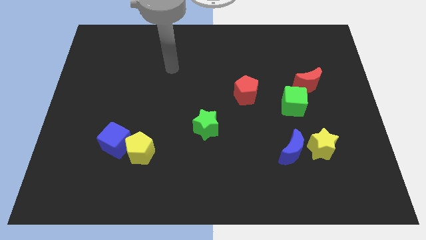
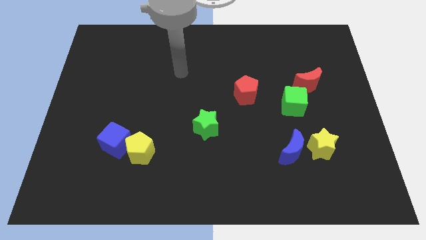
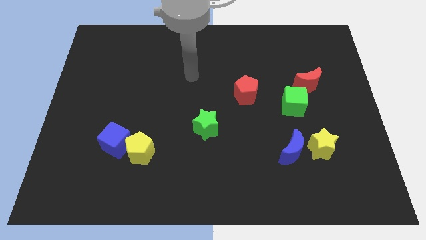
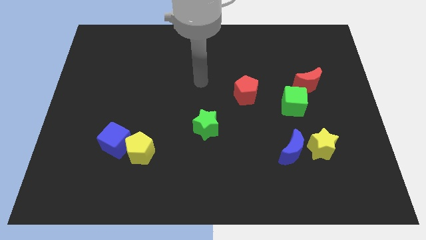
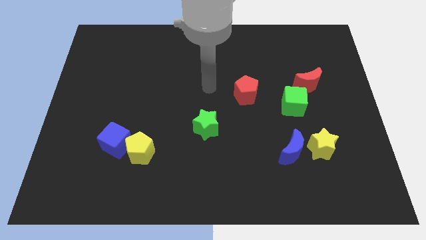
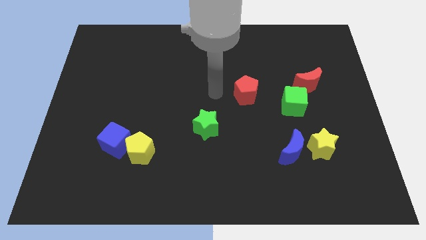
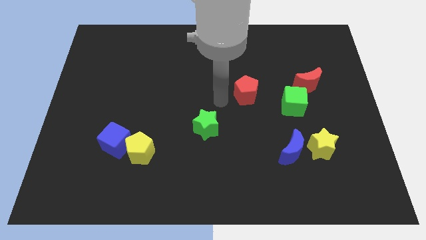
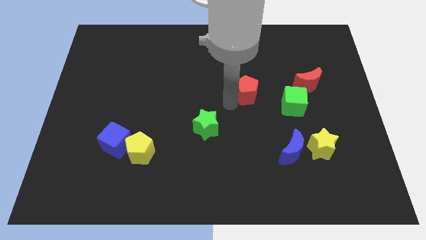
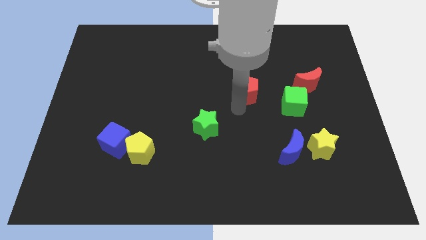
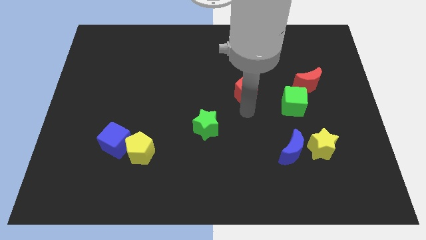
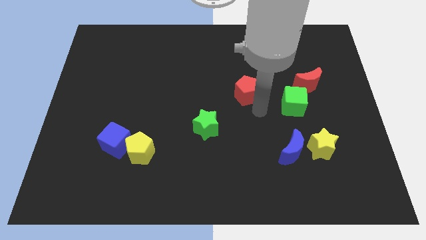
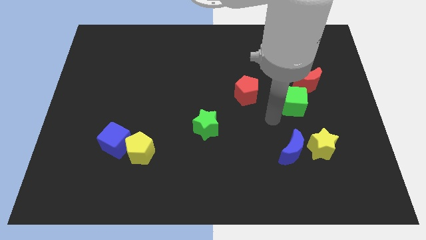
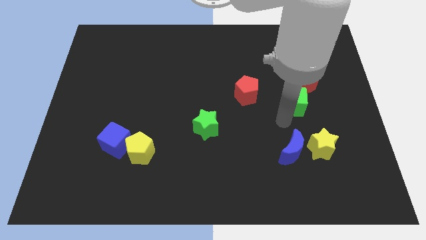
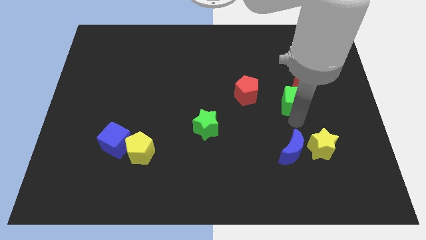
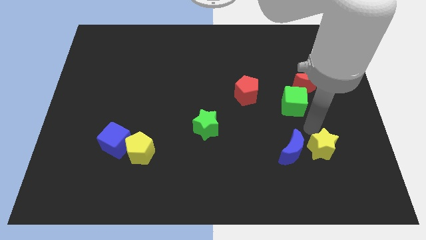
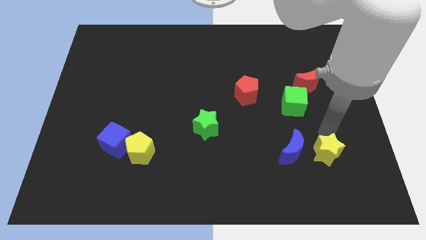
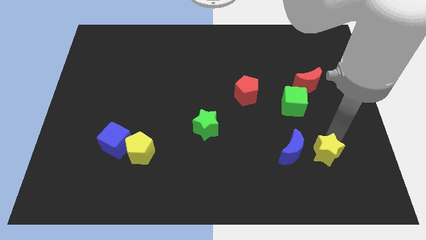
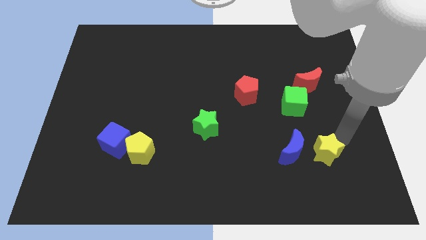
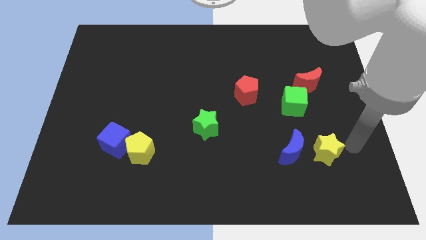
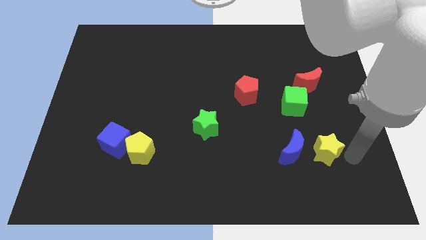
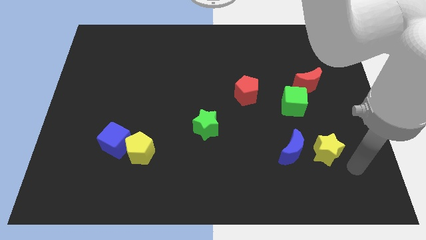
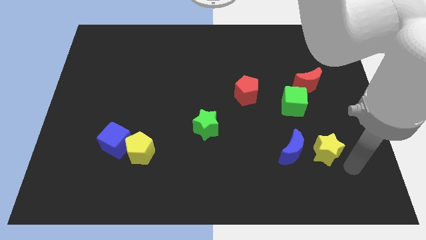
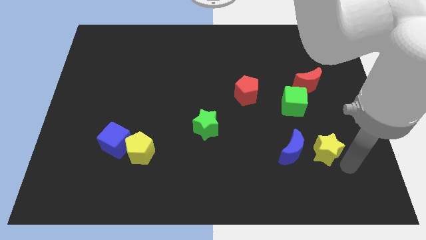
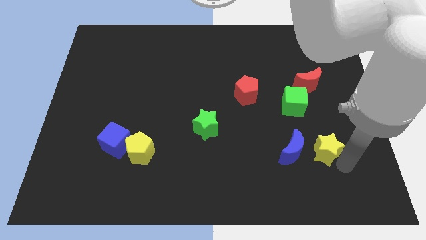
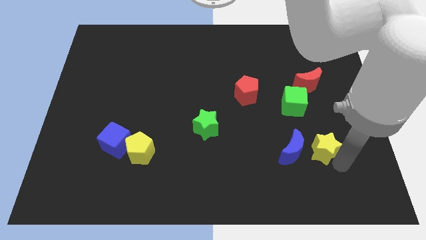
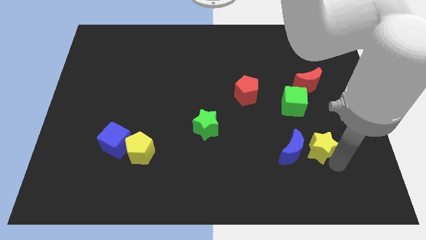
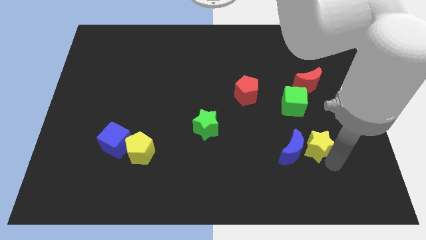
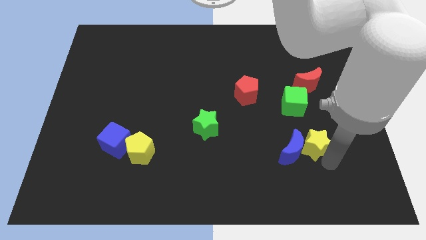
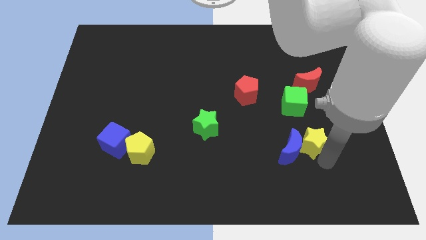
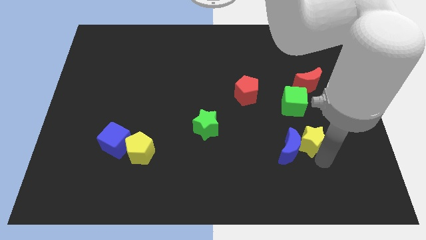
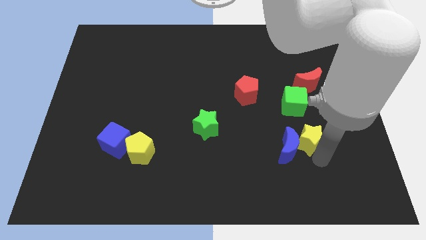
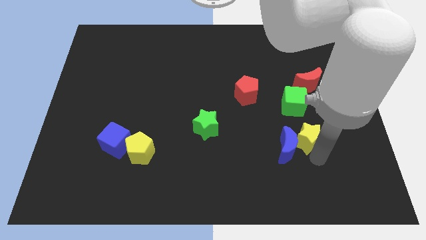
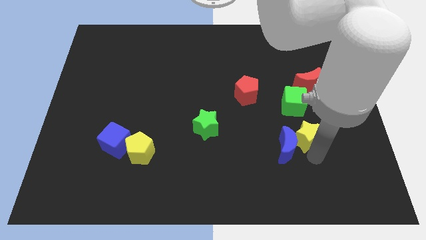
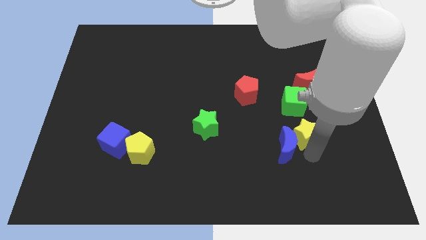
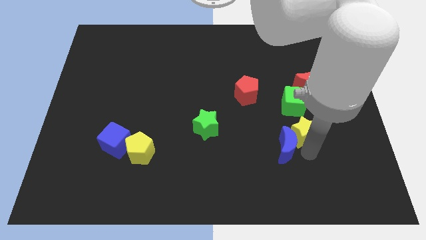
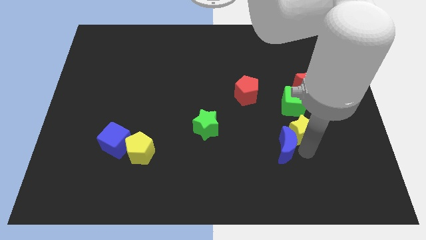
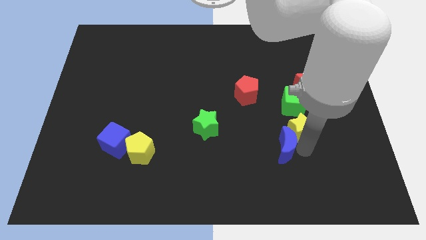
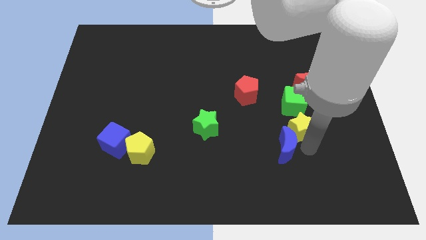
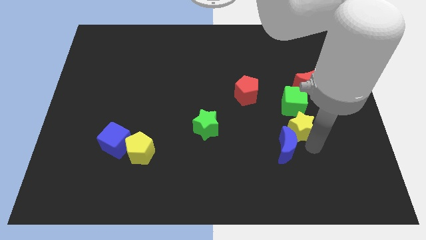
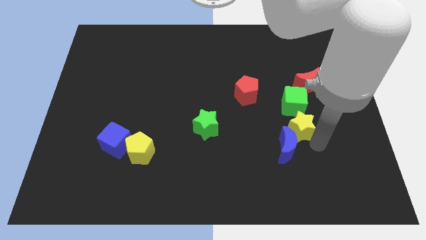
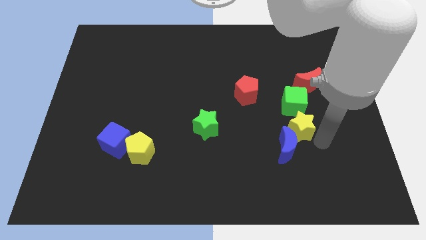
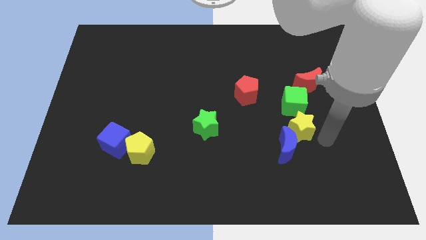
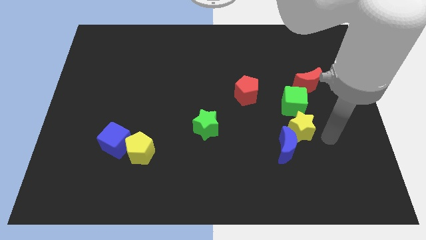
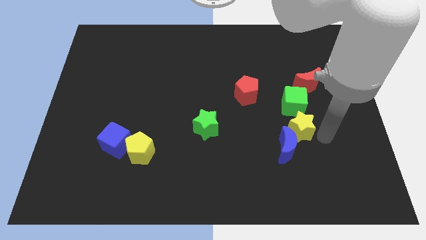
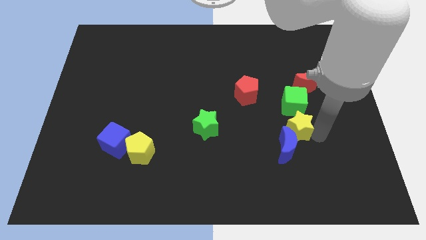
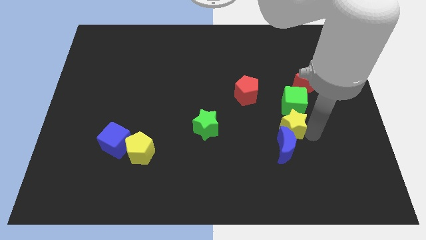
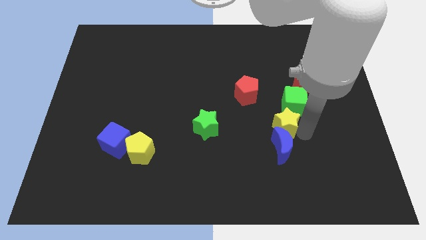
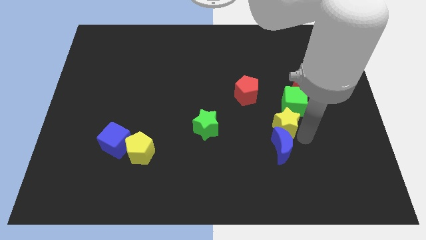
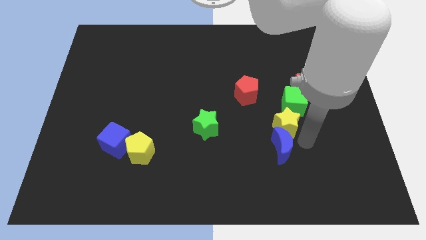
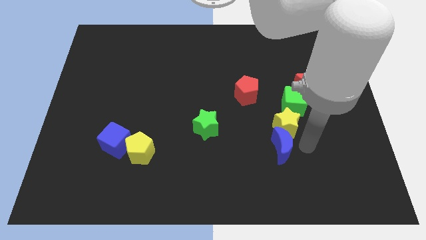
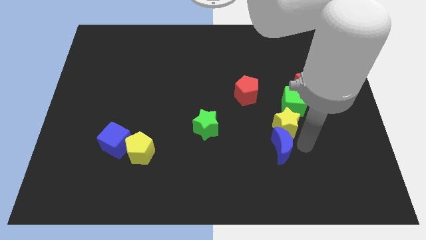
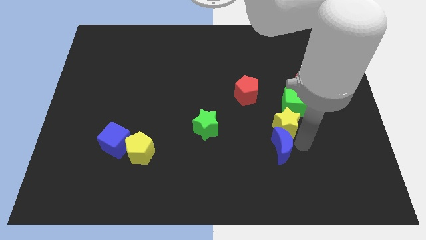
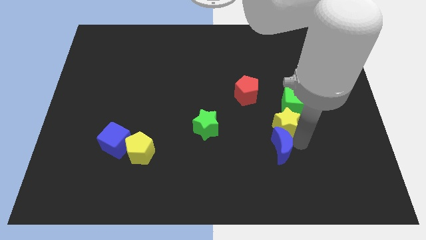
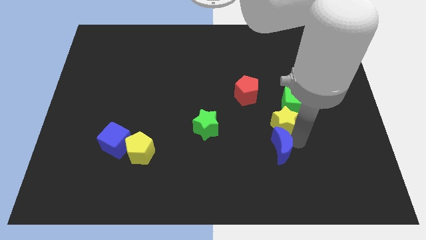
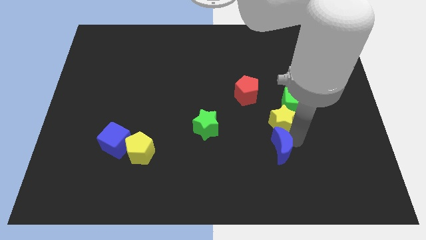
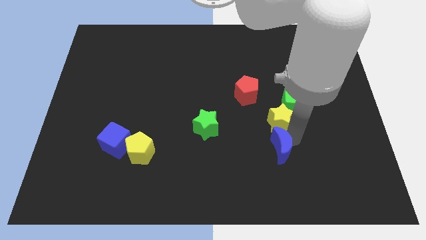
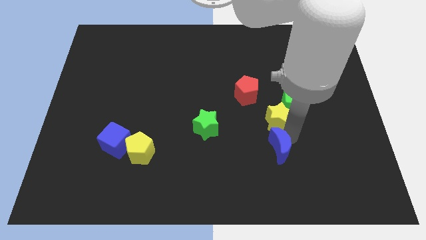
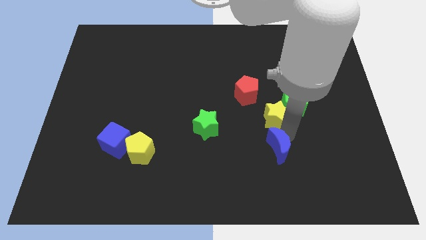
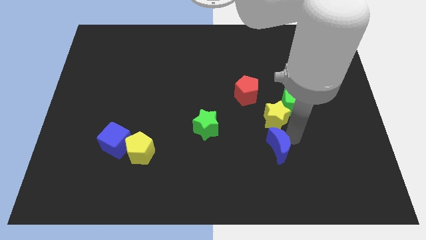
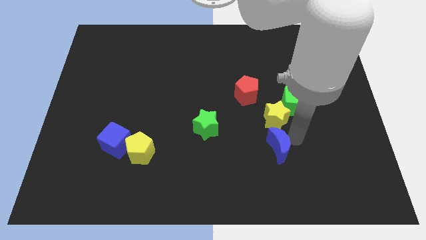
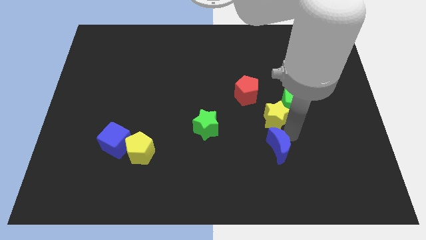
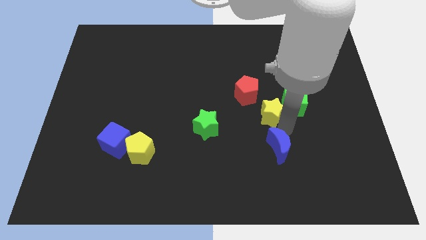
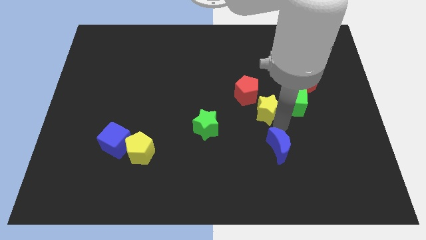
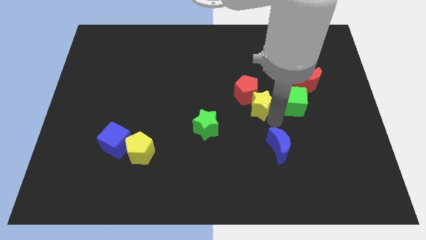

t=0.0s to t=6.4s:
put the yellow star to the red pentagon

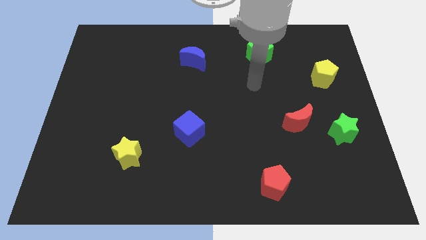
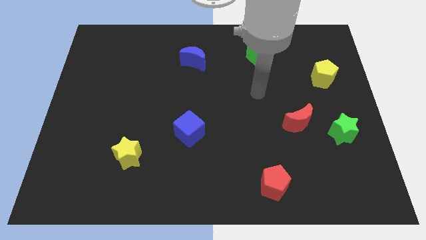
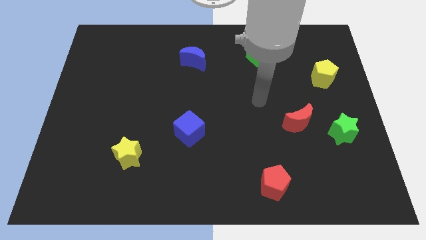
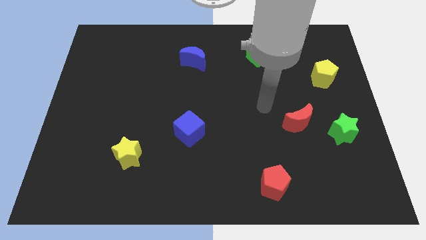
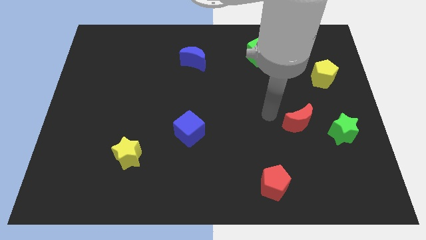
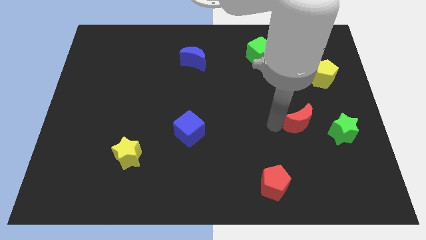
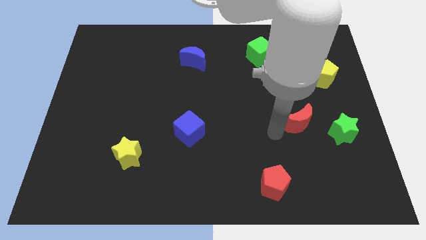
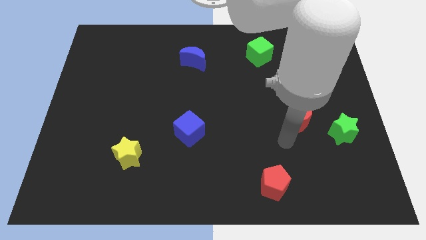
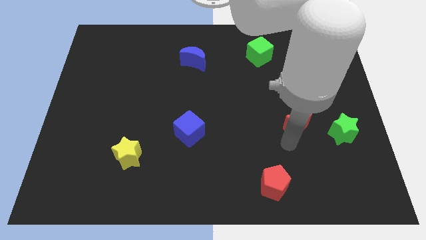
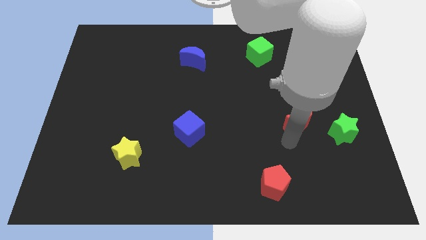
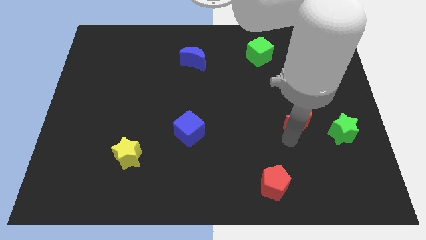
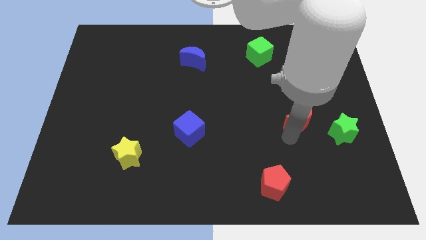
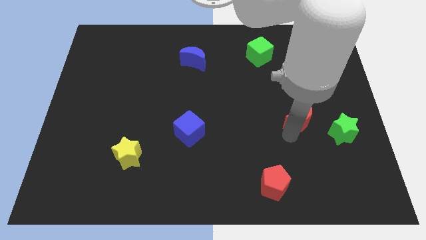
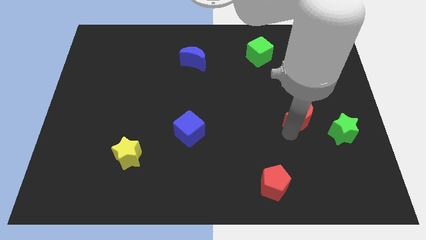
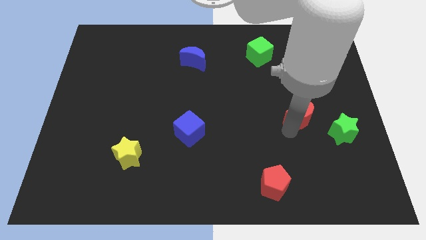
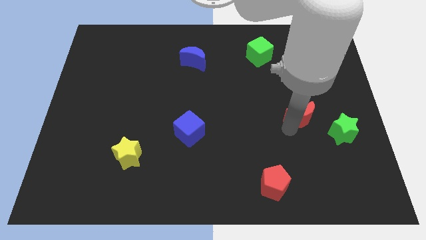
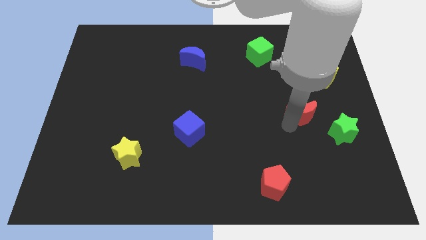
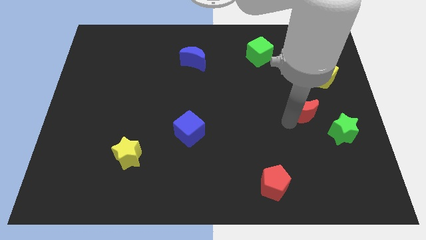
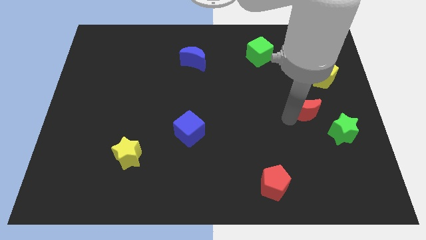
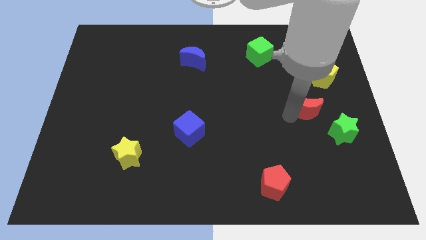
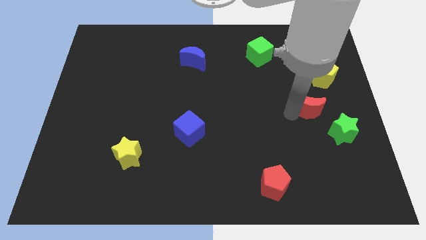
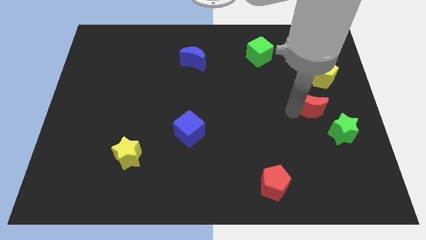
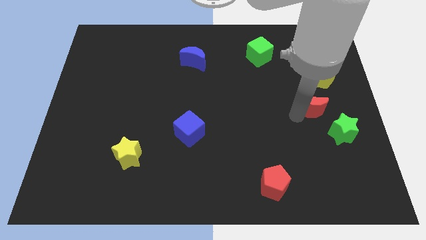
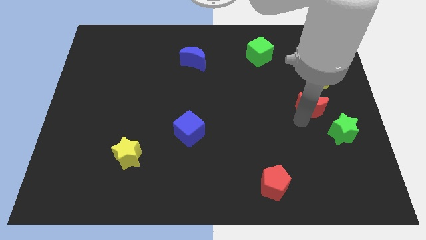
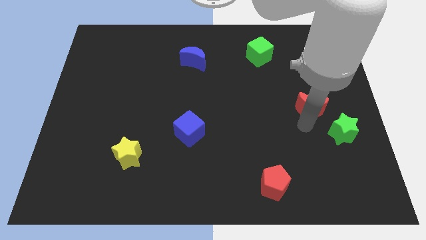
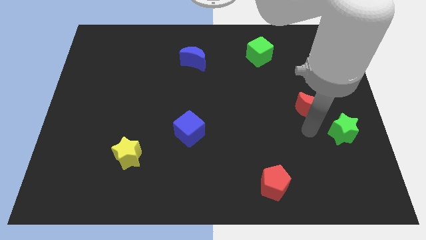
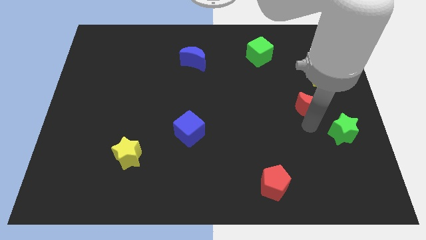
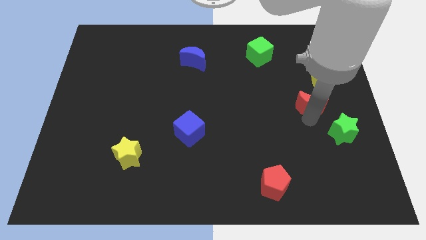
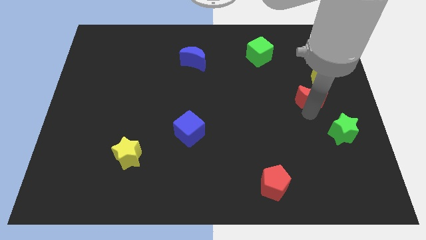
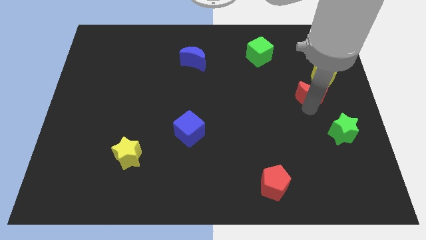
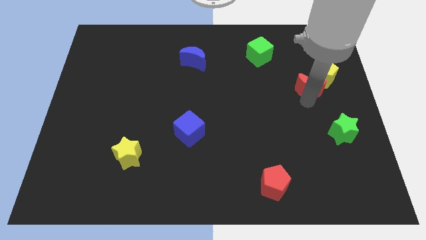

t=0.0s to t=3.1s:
move the red moon close to the yellow pentagon
